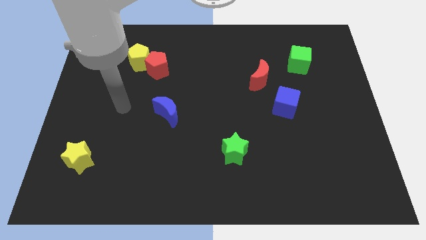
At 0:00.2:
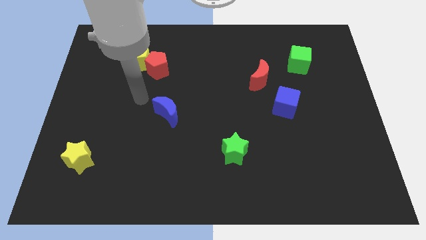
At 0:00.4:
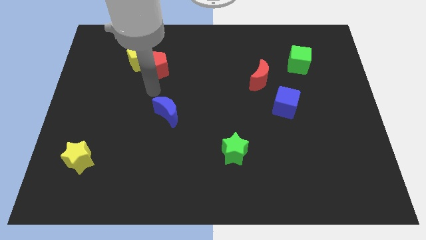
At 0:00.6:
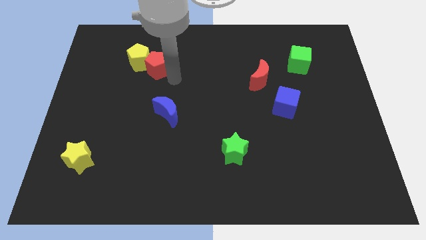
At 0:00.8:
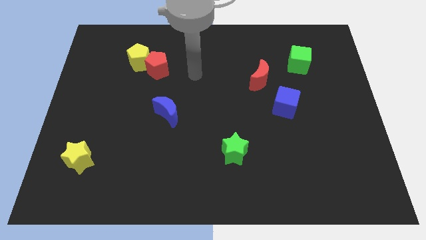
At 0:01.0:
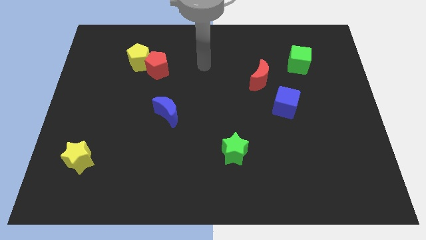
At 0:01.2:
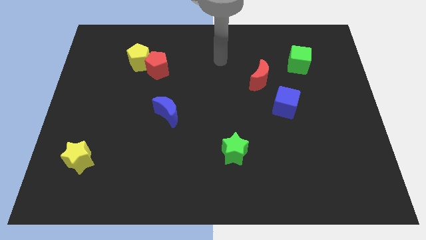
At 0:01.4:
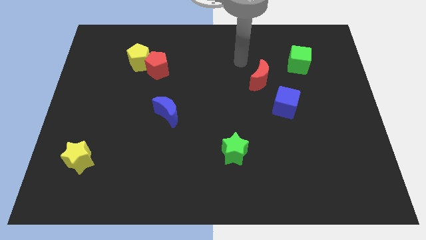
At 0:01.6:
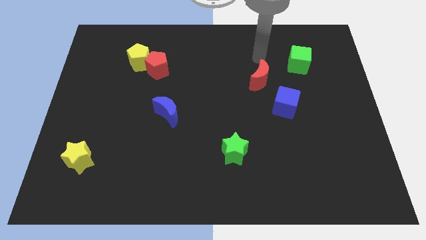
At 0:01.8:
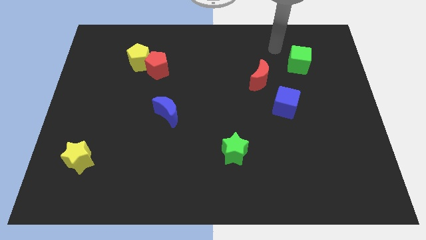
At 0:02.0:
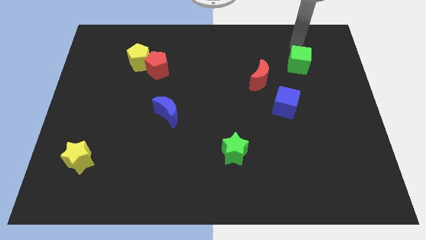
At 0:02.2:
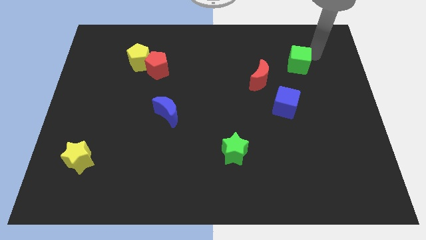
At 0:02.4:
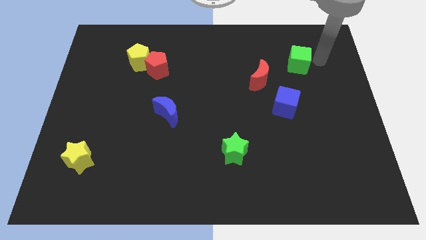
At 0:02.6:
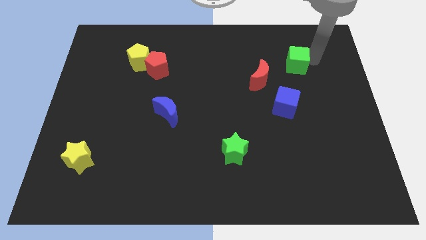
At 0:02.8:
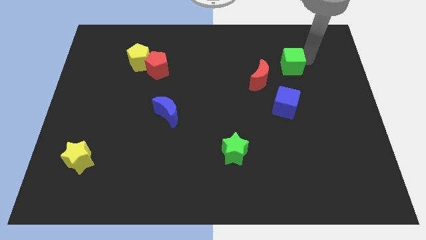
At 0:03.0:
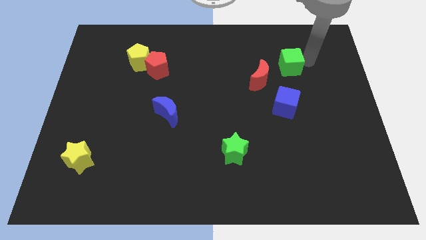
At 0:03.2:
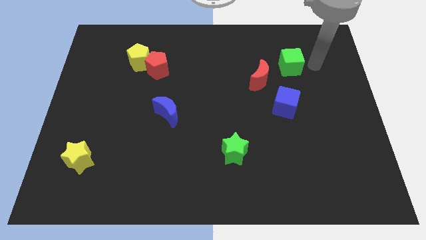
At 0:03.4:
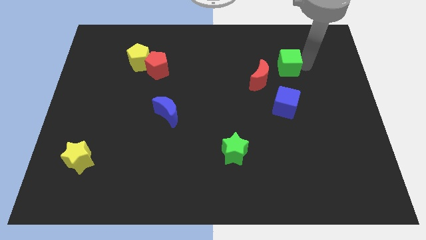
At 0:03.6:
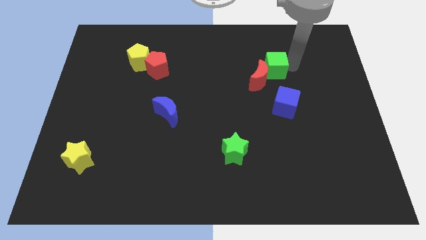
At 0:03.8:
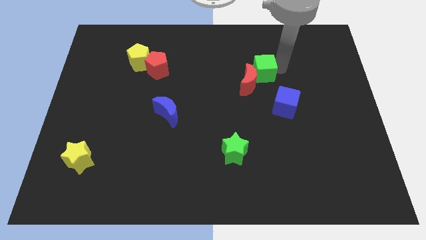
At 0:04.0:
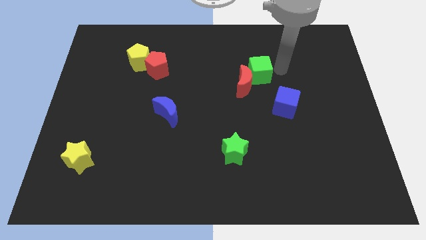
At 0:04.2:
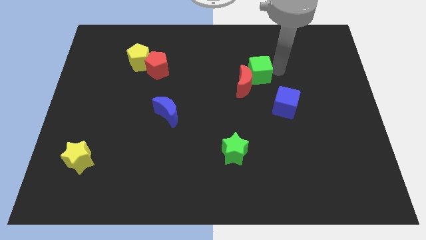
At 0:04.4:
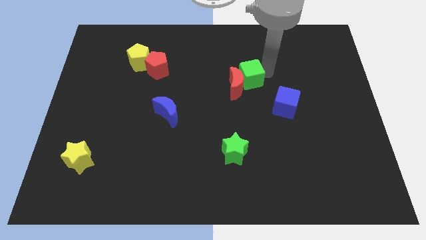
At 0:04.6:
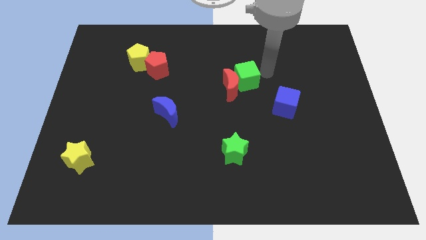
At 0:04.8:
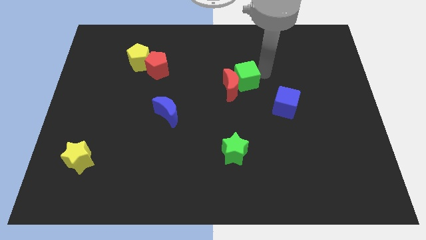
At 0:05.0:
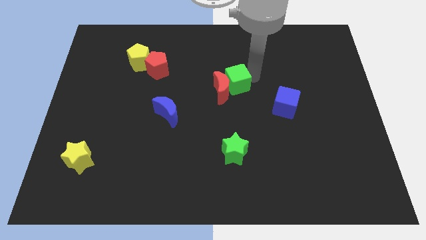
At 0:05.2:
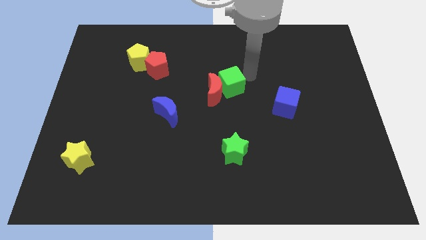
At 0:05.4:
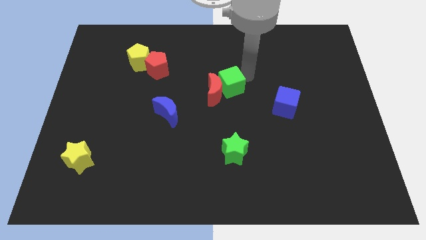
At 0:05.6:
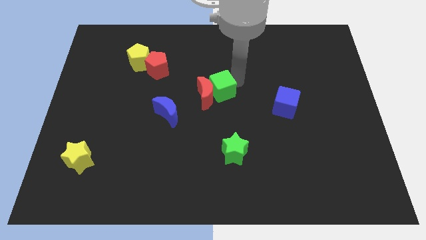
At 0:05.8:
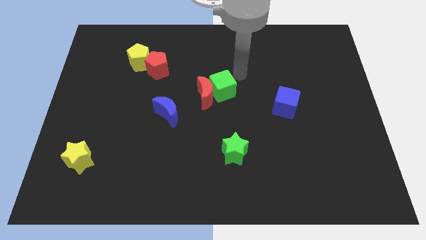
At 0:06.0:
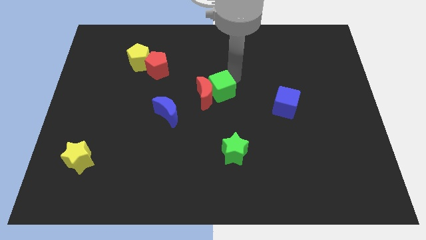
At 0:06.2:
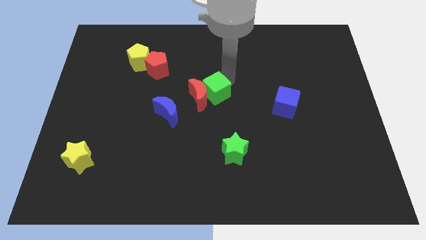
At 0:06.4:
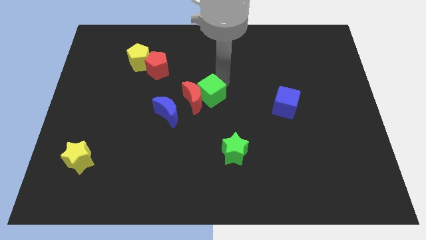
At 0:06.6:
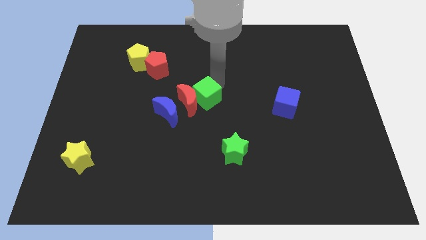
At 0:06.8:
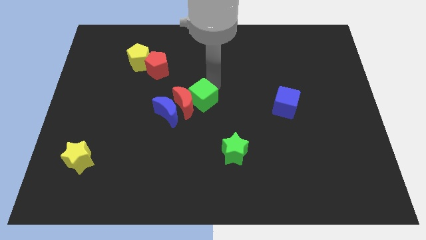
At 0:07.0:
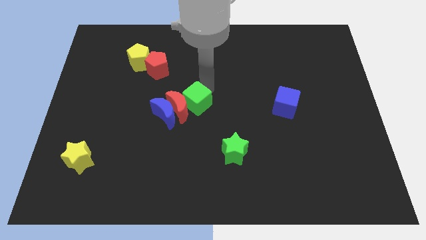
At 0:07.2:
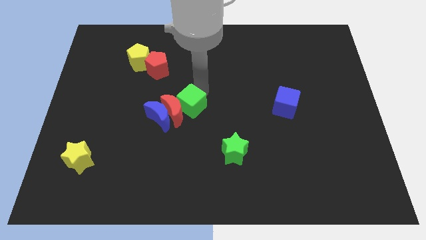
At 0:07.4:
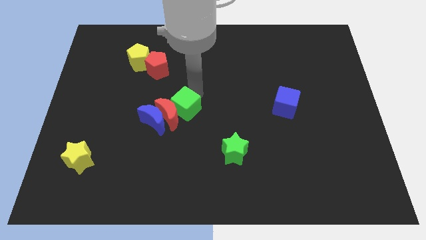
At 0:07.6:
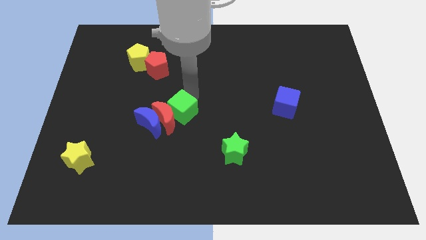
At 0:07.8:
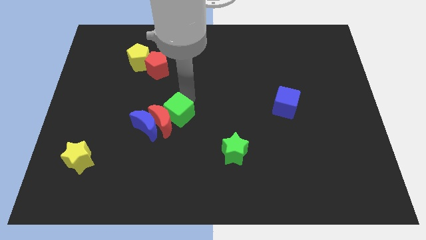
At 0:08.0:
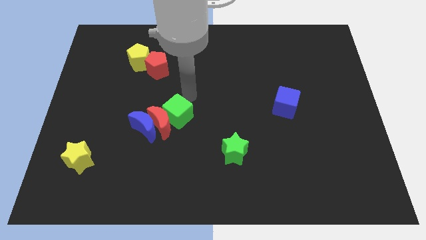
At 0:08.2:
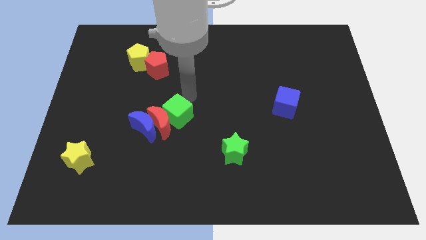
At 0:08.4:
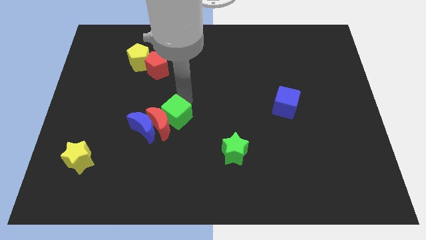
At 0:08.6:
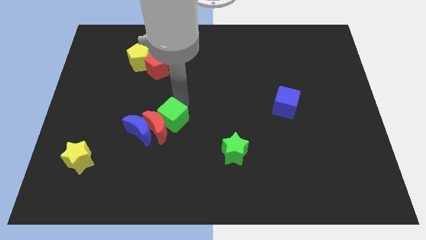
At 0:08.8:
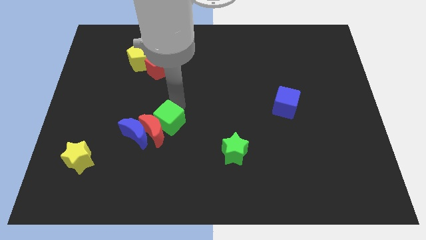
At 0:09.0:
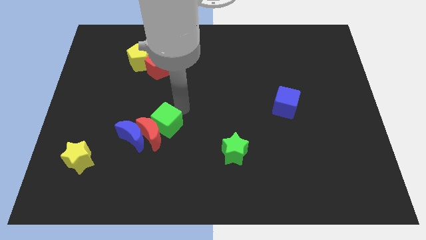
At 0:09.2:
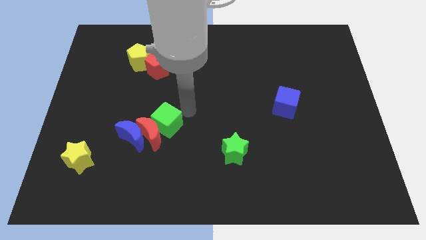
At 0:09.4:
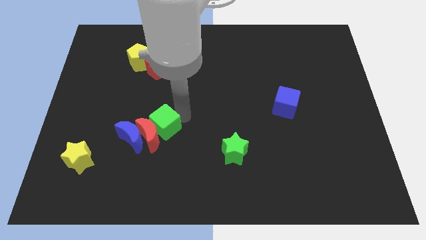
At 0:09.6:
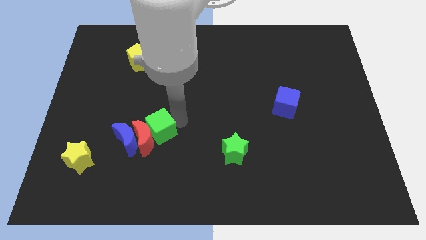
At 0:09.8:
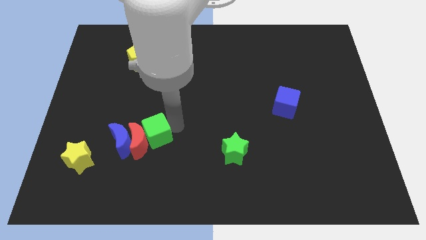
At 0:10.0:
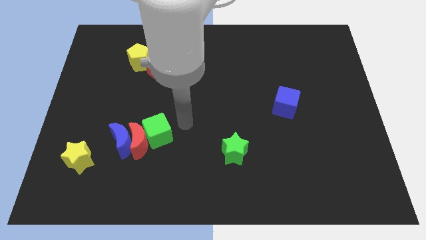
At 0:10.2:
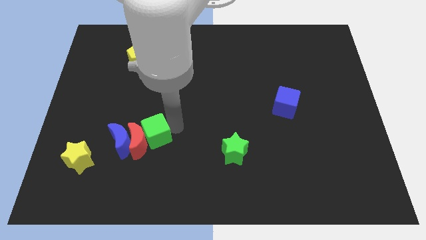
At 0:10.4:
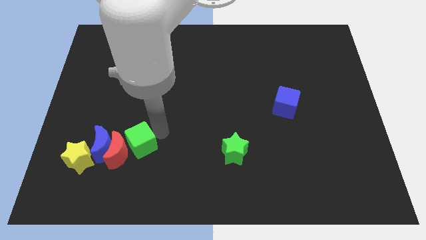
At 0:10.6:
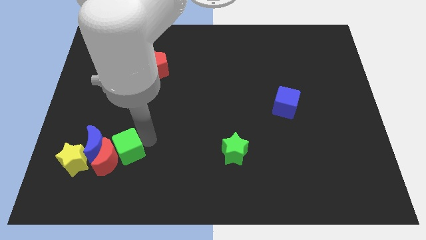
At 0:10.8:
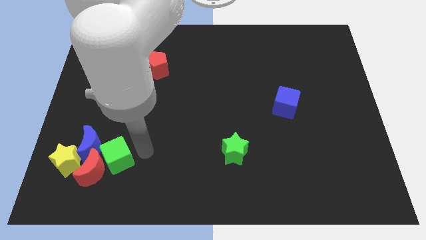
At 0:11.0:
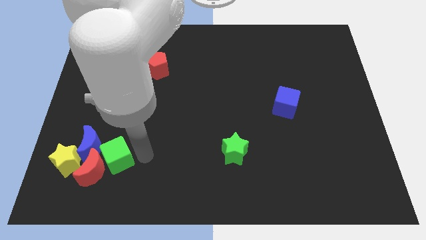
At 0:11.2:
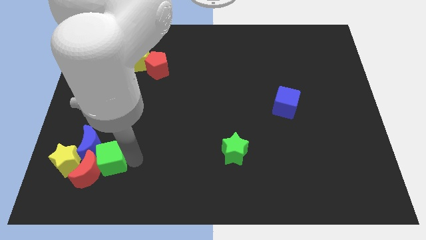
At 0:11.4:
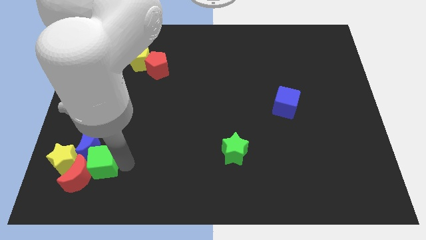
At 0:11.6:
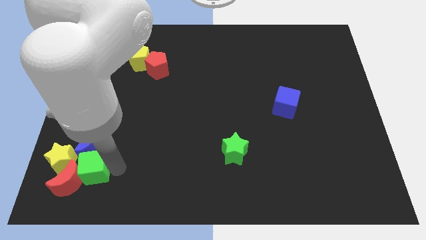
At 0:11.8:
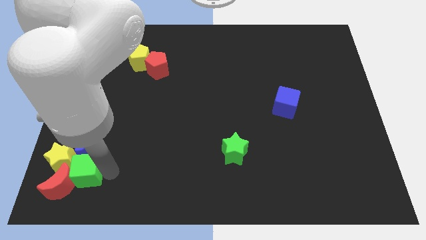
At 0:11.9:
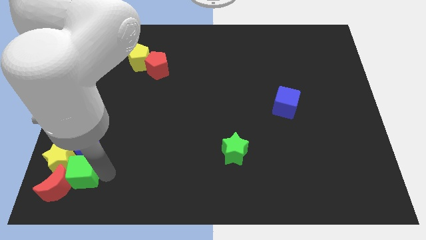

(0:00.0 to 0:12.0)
slide the green cube close to the yellow star

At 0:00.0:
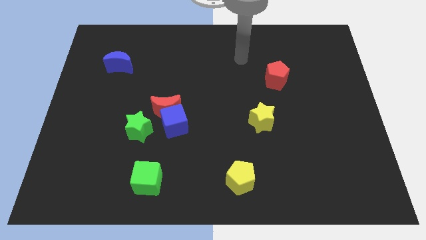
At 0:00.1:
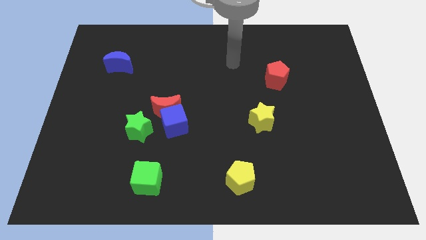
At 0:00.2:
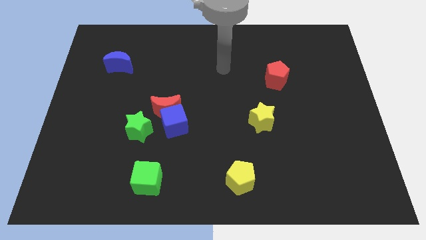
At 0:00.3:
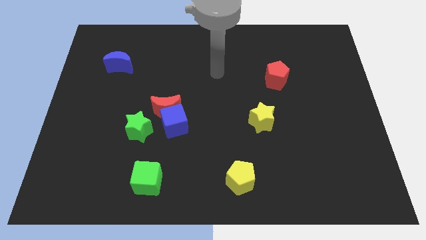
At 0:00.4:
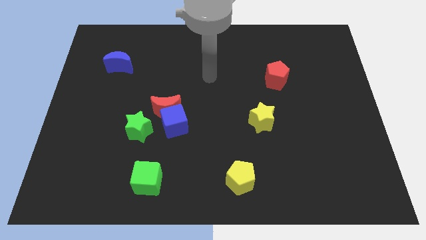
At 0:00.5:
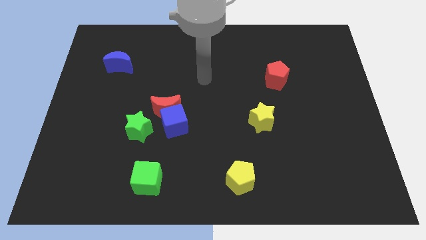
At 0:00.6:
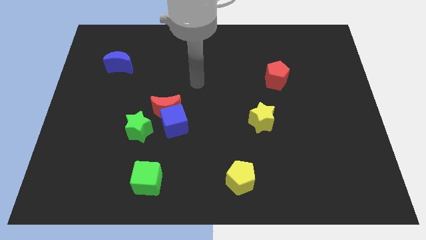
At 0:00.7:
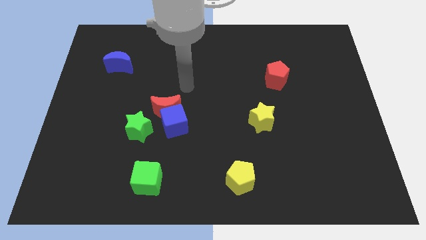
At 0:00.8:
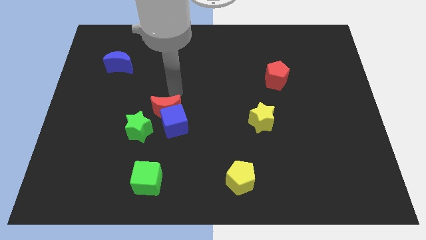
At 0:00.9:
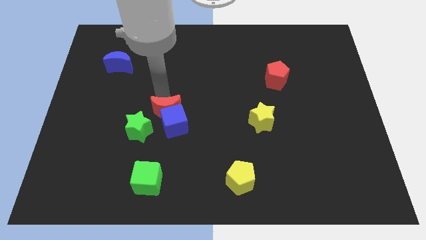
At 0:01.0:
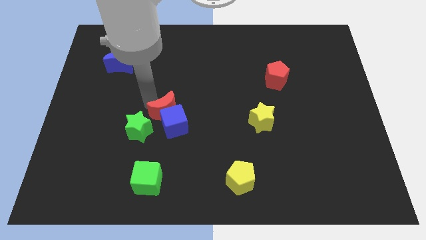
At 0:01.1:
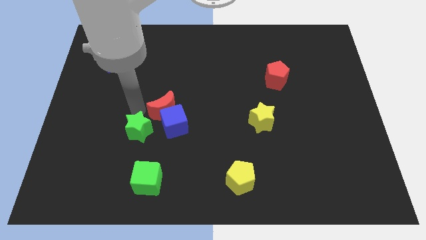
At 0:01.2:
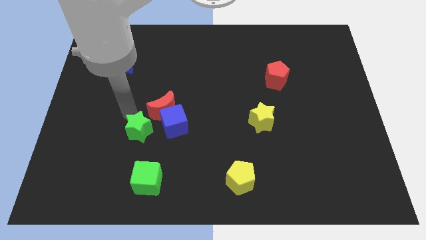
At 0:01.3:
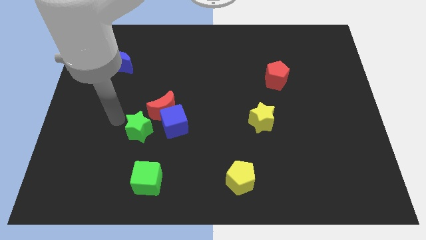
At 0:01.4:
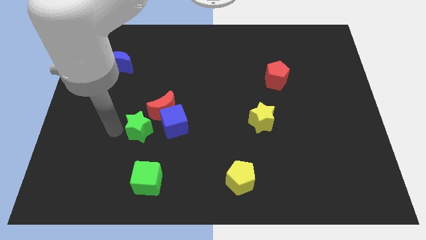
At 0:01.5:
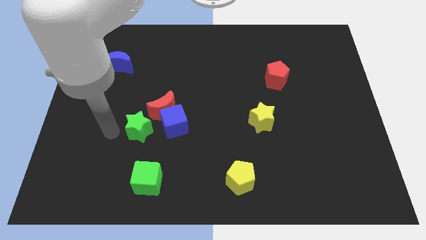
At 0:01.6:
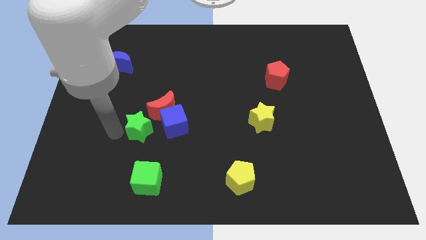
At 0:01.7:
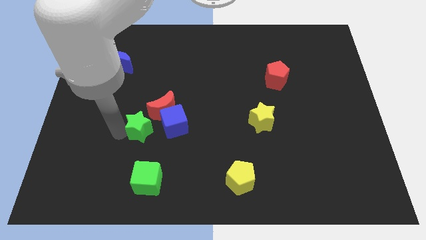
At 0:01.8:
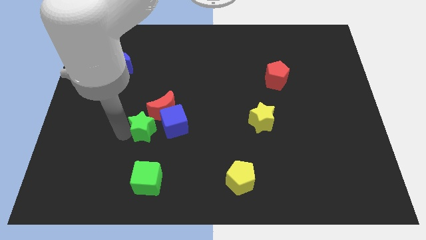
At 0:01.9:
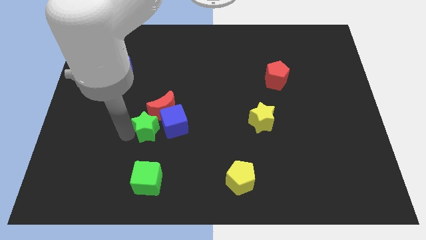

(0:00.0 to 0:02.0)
push the green star next to the blue cube
